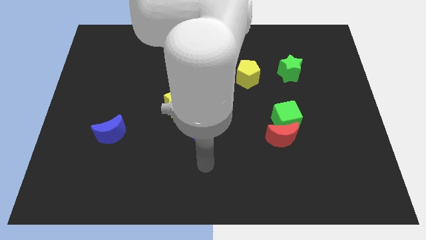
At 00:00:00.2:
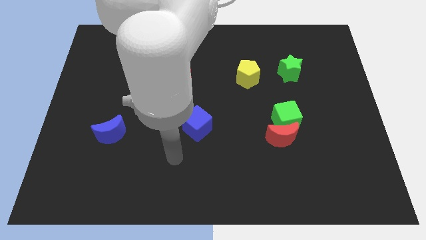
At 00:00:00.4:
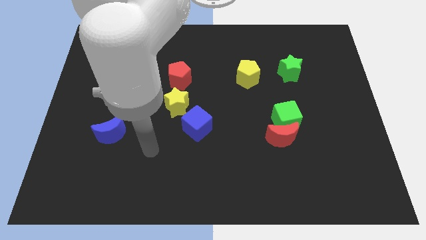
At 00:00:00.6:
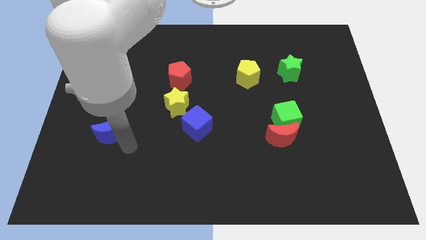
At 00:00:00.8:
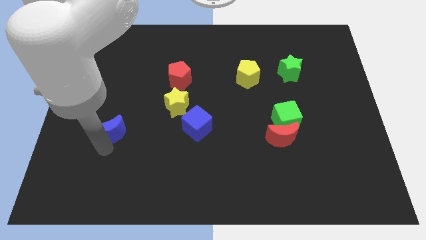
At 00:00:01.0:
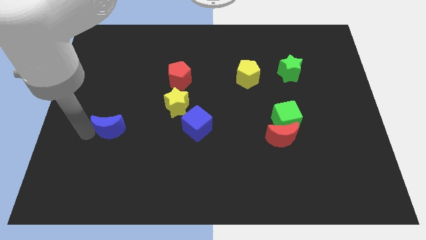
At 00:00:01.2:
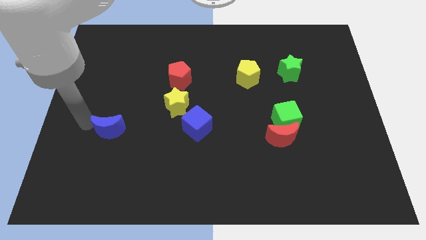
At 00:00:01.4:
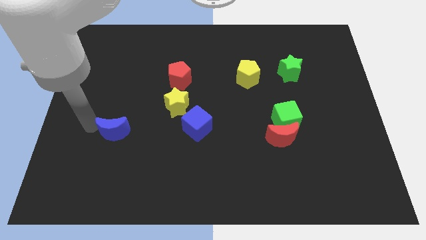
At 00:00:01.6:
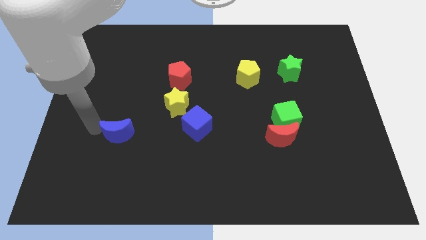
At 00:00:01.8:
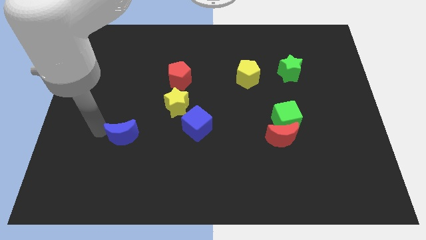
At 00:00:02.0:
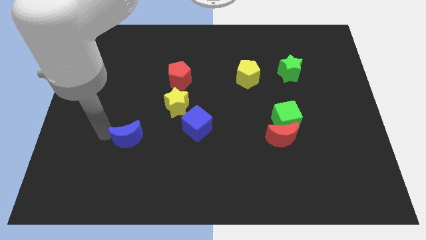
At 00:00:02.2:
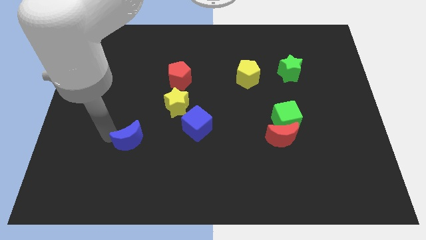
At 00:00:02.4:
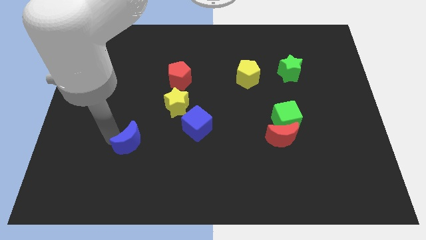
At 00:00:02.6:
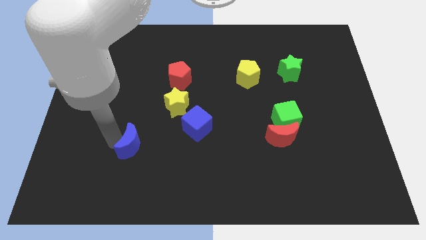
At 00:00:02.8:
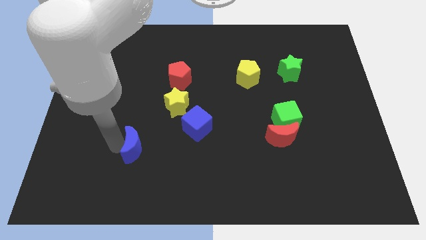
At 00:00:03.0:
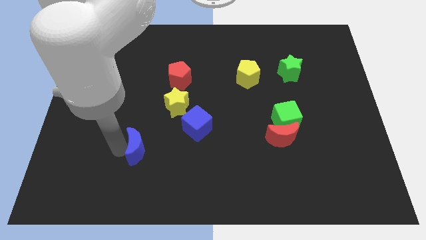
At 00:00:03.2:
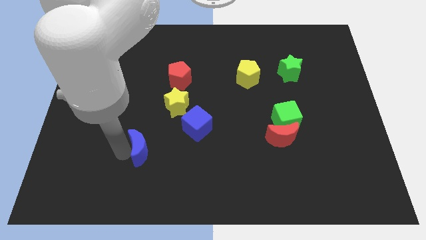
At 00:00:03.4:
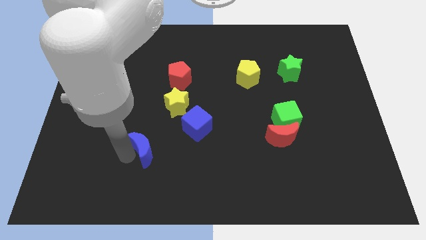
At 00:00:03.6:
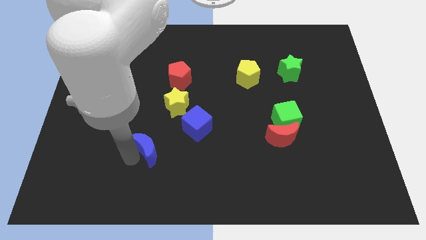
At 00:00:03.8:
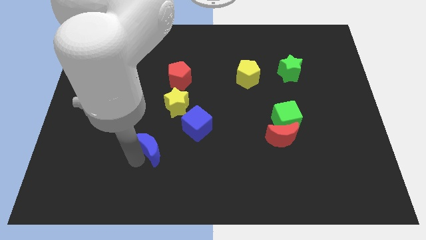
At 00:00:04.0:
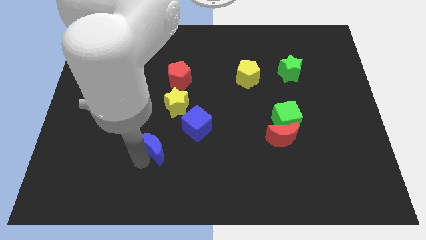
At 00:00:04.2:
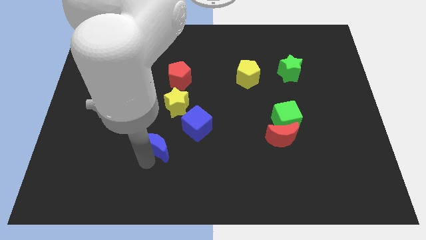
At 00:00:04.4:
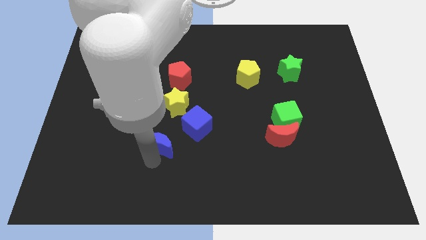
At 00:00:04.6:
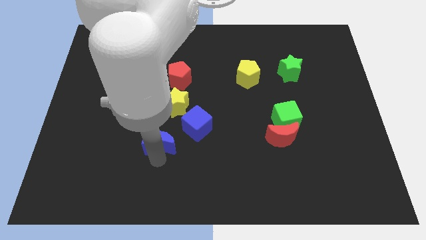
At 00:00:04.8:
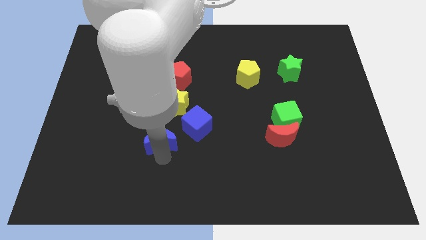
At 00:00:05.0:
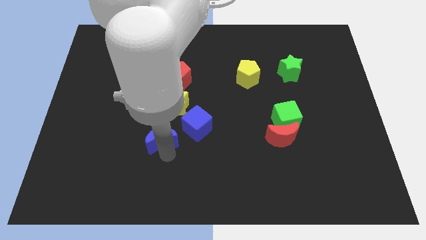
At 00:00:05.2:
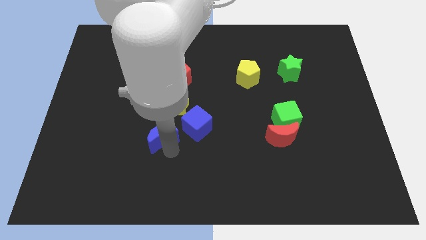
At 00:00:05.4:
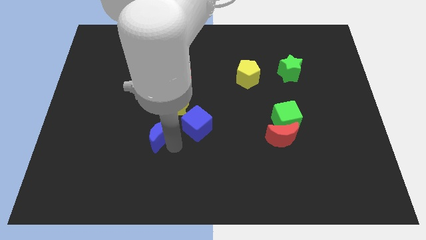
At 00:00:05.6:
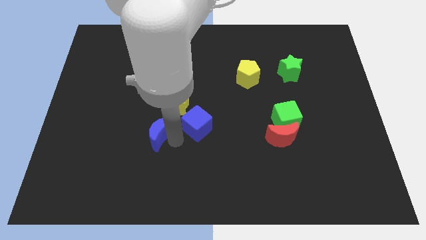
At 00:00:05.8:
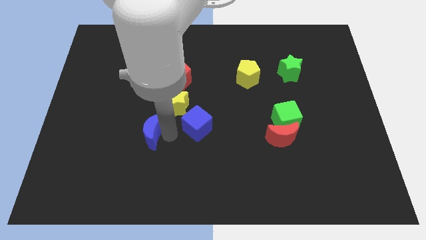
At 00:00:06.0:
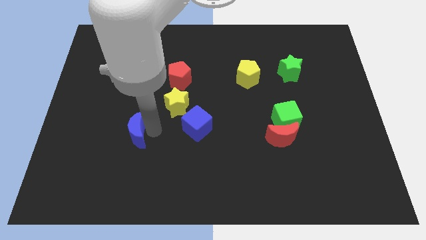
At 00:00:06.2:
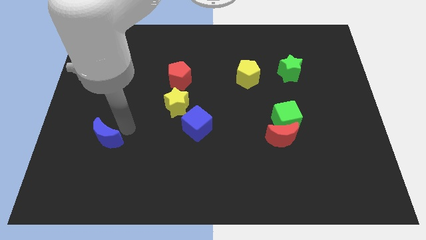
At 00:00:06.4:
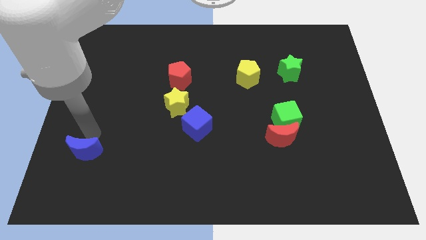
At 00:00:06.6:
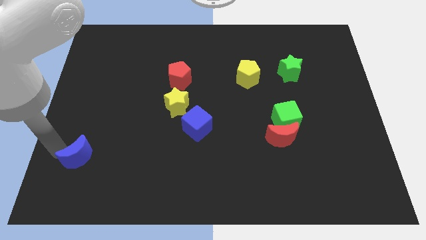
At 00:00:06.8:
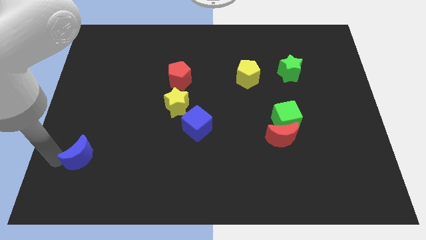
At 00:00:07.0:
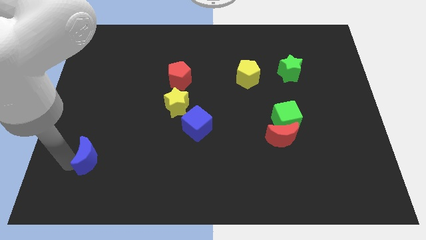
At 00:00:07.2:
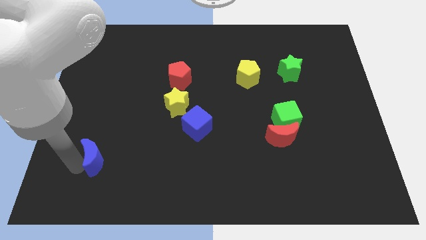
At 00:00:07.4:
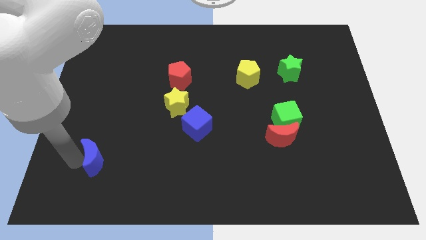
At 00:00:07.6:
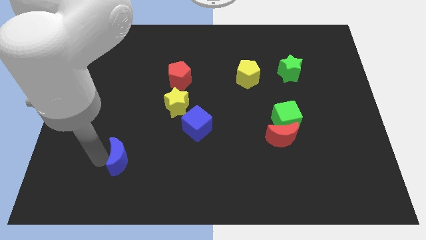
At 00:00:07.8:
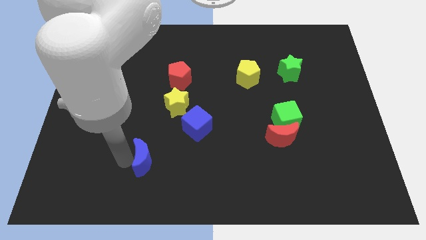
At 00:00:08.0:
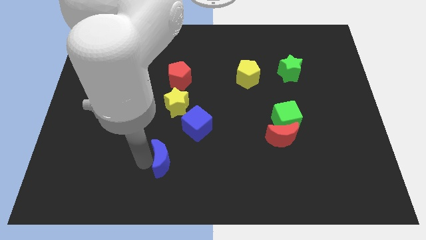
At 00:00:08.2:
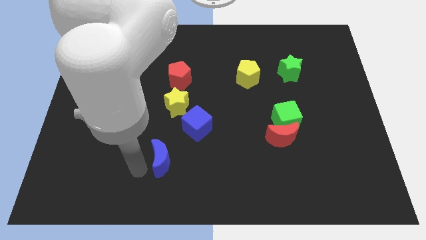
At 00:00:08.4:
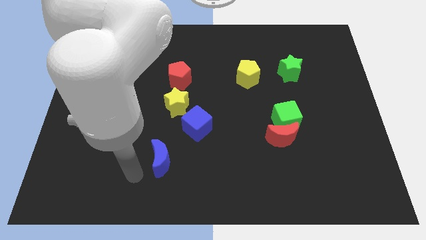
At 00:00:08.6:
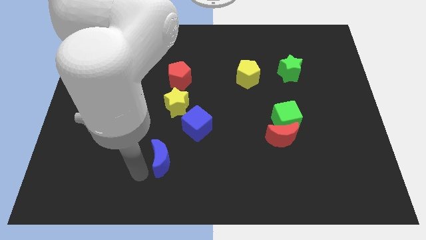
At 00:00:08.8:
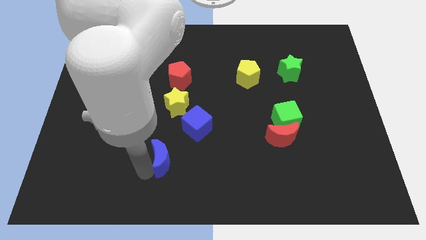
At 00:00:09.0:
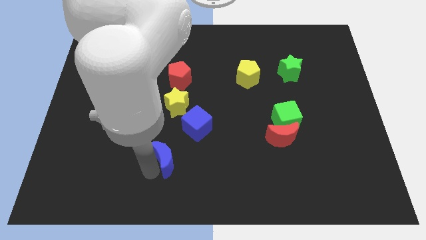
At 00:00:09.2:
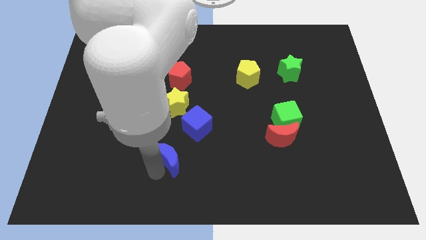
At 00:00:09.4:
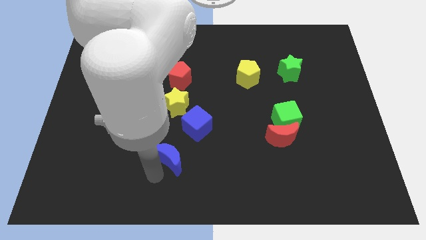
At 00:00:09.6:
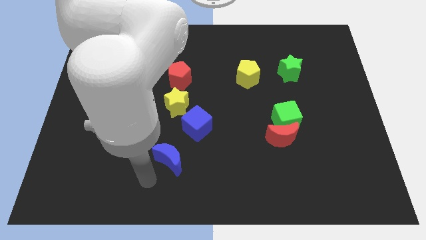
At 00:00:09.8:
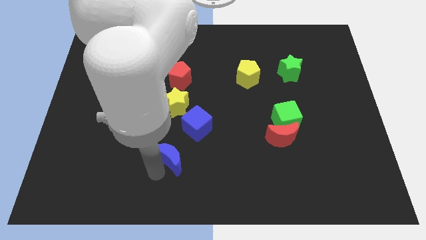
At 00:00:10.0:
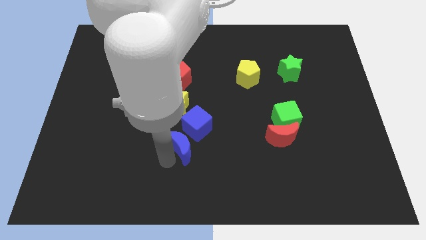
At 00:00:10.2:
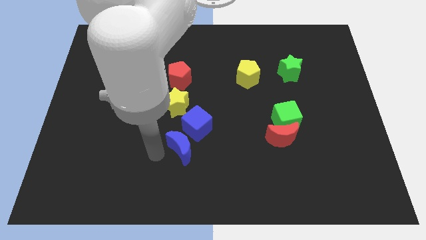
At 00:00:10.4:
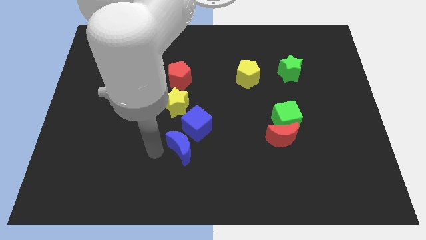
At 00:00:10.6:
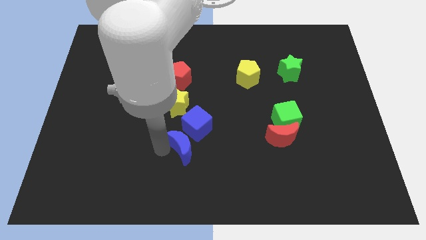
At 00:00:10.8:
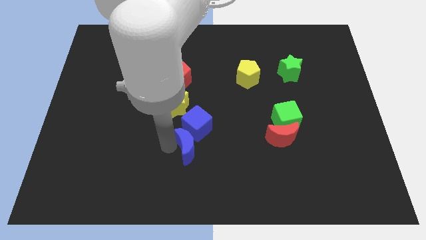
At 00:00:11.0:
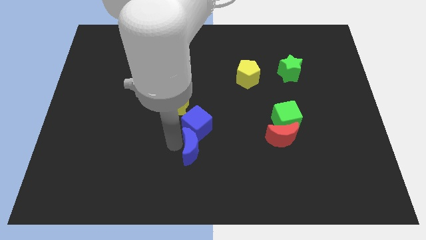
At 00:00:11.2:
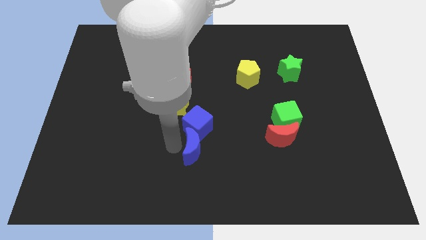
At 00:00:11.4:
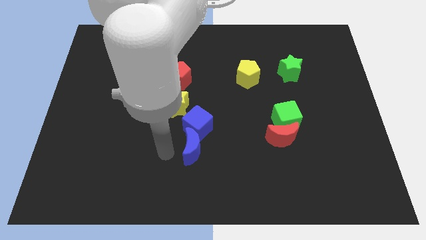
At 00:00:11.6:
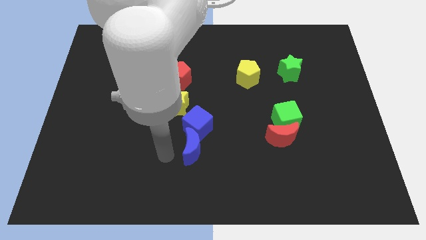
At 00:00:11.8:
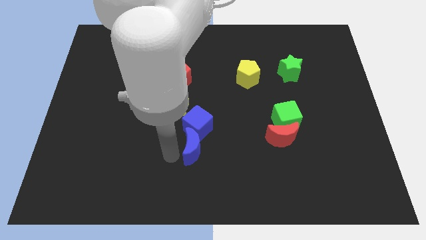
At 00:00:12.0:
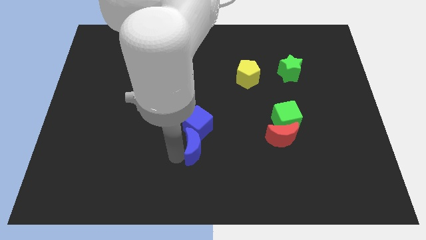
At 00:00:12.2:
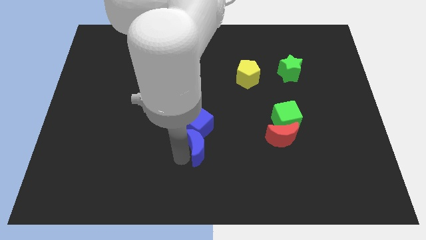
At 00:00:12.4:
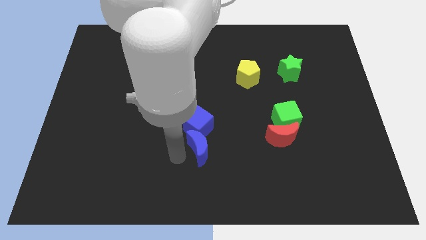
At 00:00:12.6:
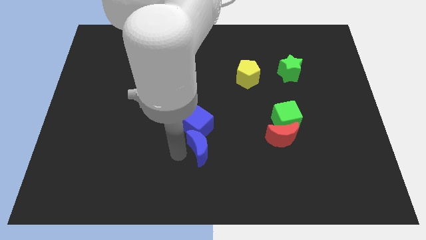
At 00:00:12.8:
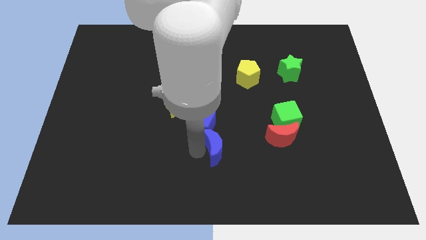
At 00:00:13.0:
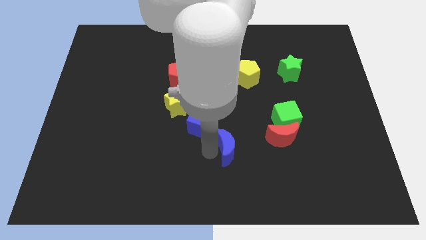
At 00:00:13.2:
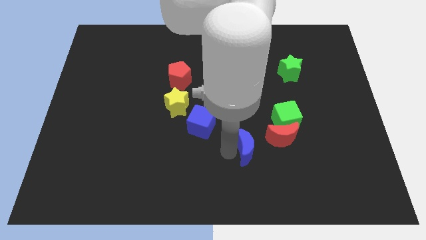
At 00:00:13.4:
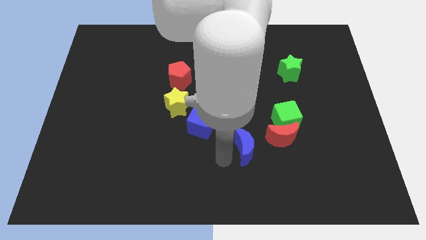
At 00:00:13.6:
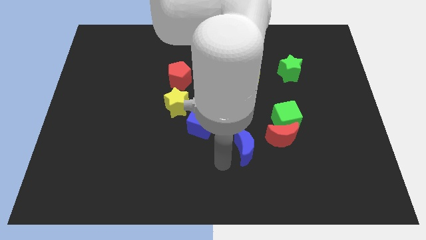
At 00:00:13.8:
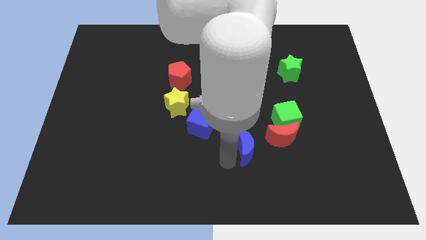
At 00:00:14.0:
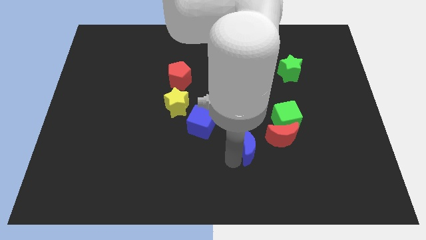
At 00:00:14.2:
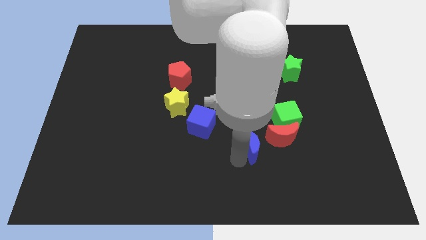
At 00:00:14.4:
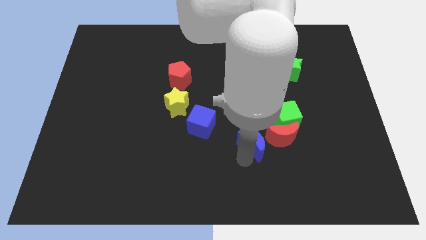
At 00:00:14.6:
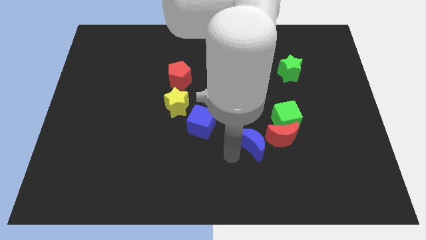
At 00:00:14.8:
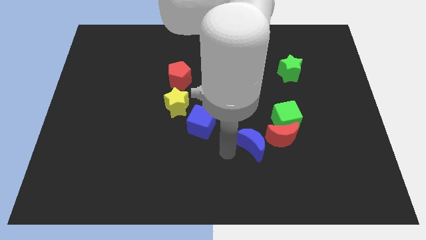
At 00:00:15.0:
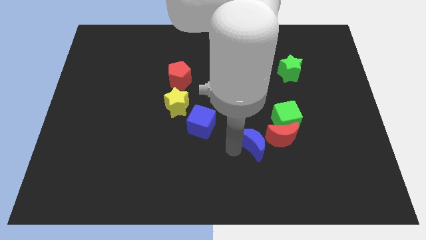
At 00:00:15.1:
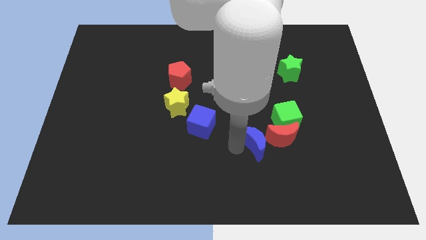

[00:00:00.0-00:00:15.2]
put the blue moon towards the red moon
